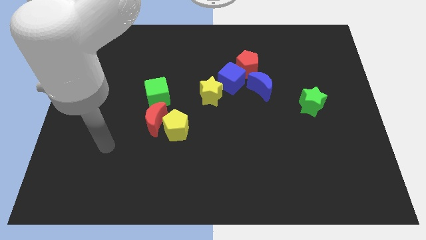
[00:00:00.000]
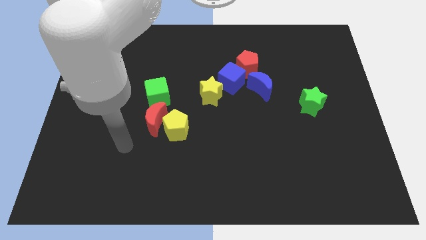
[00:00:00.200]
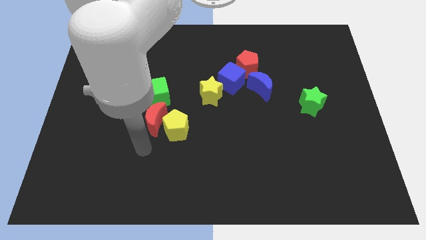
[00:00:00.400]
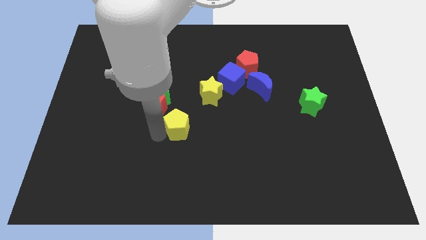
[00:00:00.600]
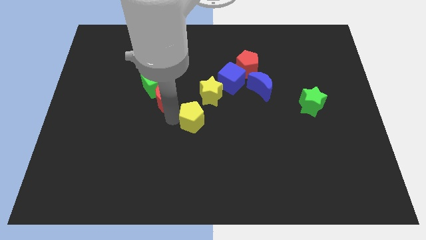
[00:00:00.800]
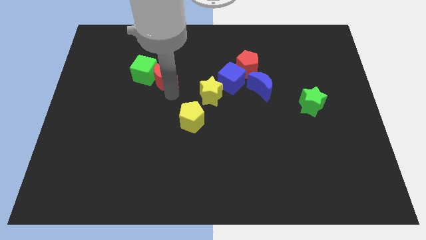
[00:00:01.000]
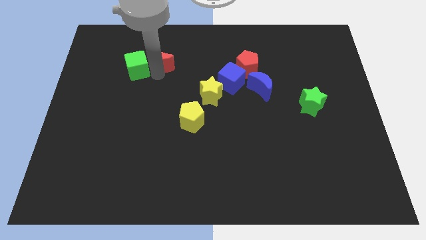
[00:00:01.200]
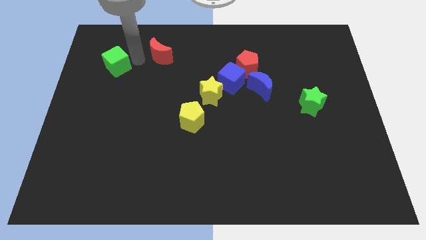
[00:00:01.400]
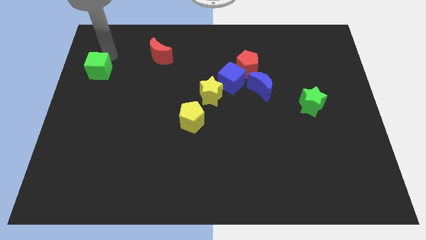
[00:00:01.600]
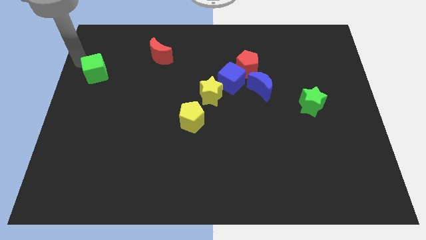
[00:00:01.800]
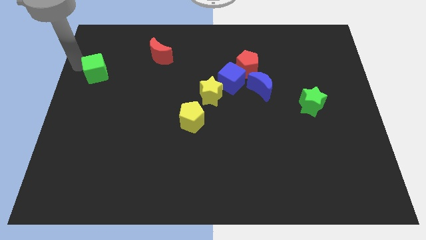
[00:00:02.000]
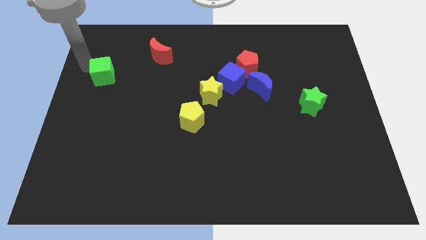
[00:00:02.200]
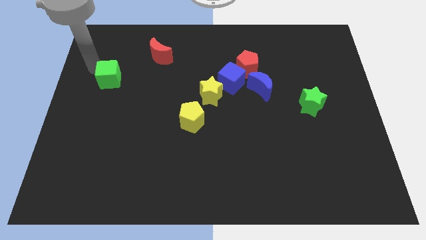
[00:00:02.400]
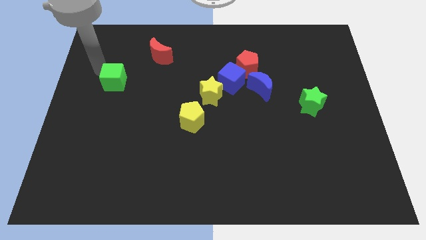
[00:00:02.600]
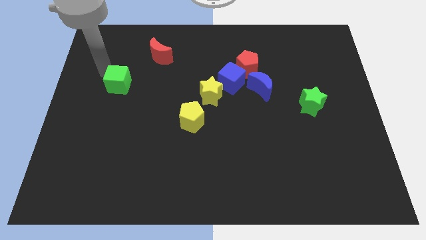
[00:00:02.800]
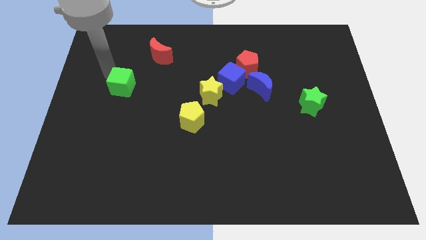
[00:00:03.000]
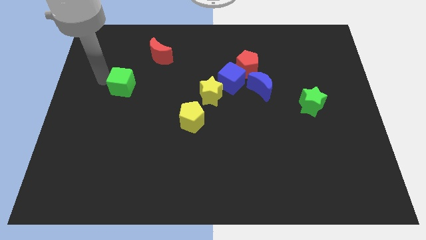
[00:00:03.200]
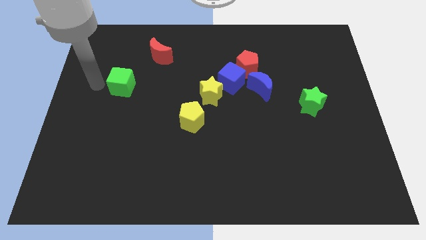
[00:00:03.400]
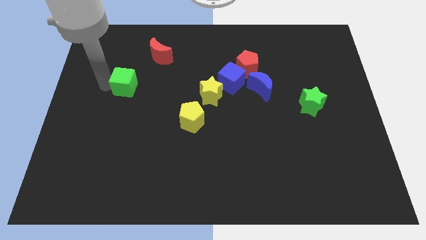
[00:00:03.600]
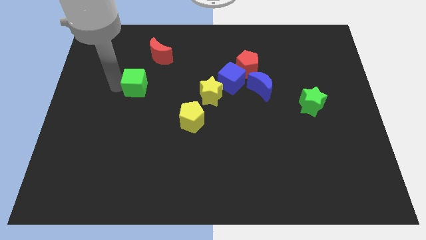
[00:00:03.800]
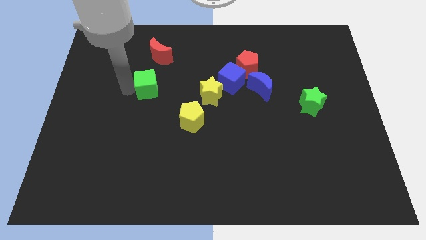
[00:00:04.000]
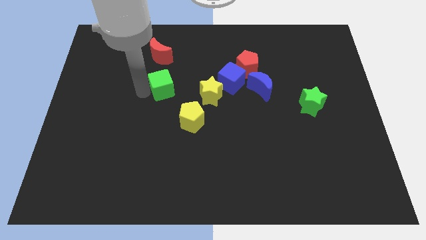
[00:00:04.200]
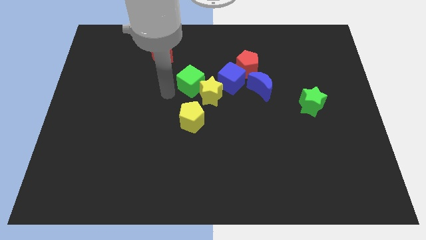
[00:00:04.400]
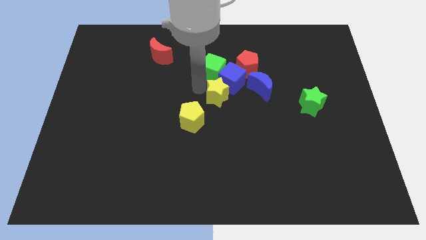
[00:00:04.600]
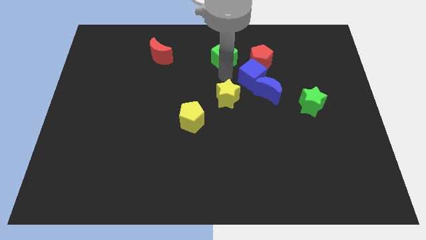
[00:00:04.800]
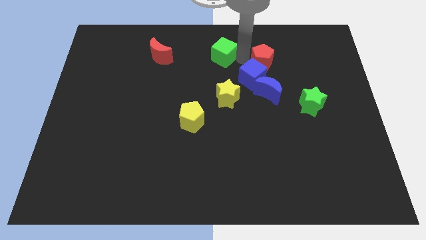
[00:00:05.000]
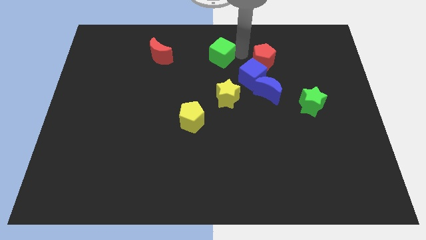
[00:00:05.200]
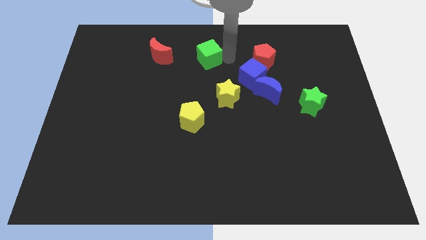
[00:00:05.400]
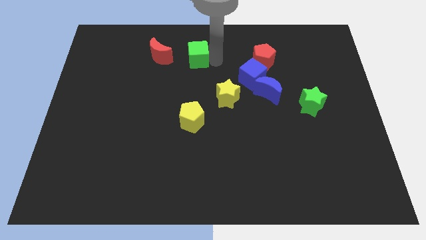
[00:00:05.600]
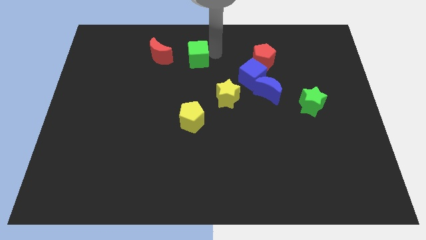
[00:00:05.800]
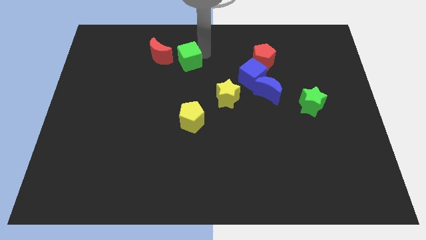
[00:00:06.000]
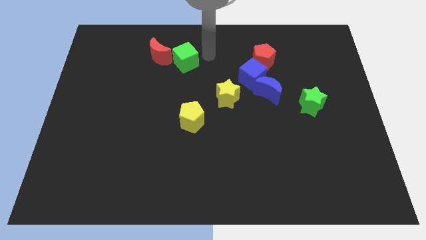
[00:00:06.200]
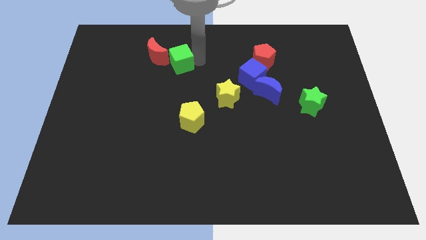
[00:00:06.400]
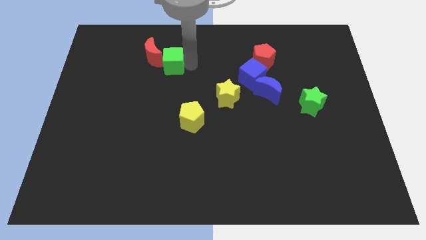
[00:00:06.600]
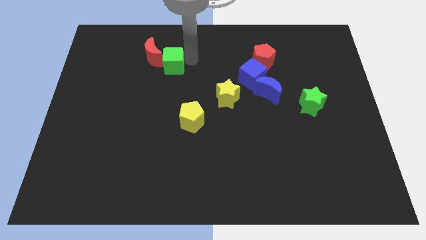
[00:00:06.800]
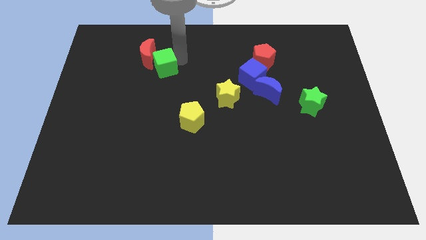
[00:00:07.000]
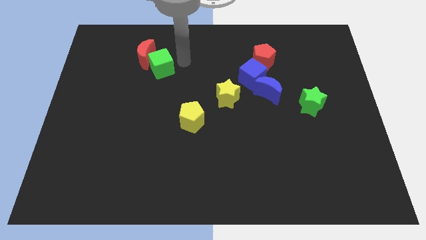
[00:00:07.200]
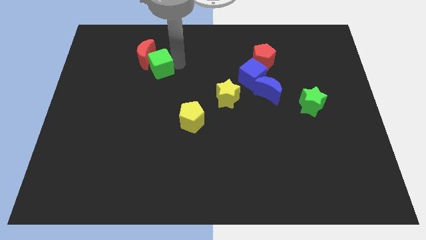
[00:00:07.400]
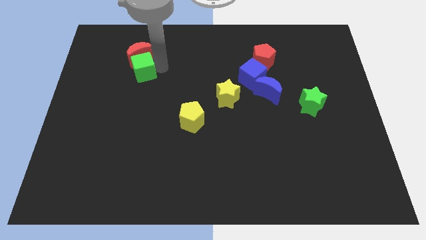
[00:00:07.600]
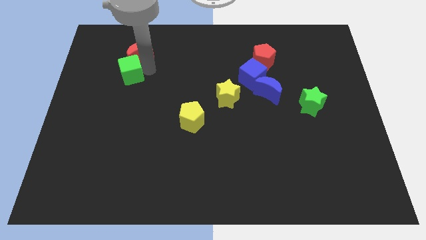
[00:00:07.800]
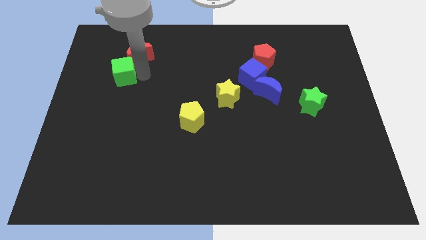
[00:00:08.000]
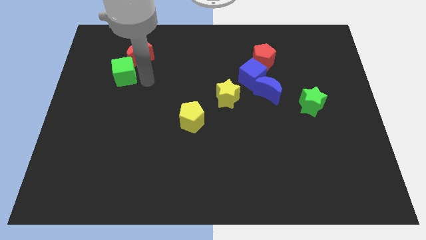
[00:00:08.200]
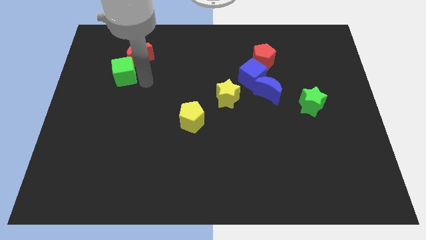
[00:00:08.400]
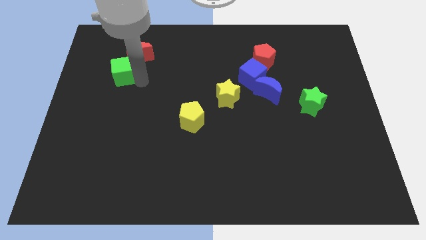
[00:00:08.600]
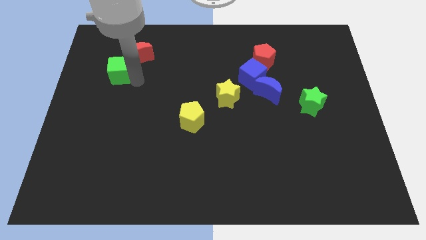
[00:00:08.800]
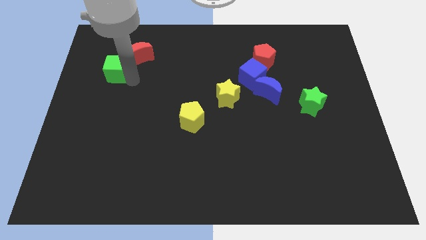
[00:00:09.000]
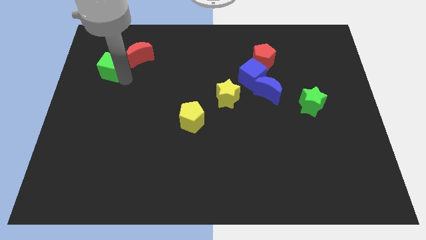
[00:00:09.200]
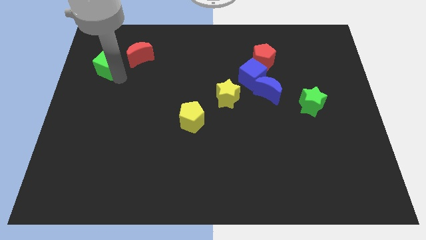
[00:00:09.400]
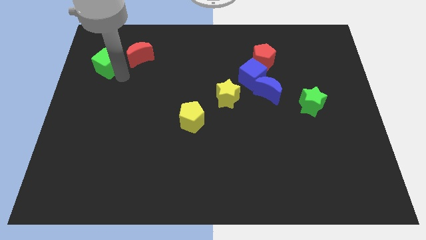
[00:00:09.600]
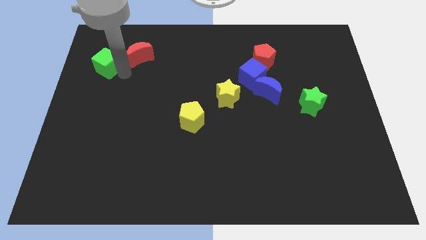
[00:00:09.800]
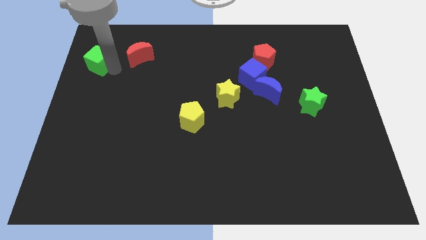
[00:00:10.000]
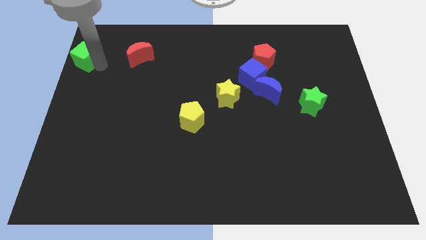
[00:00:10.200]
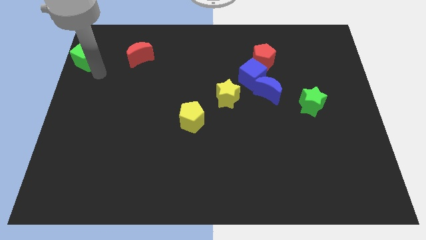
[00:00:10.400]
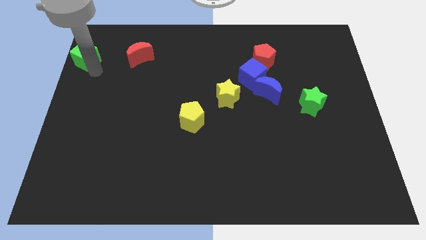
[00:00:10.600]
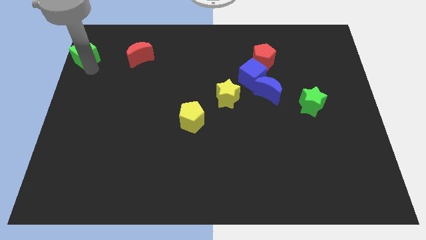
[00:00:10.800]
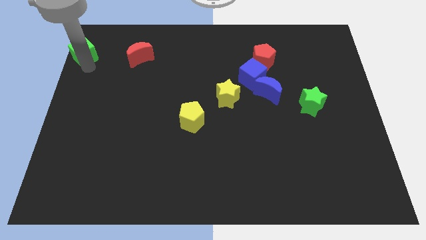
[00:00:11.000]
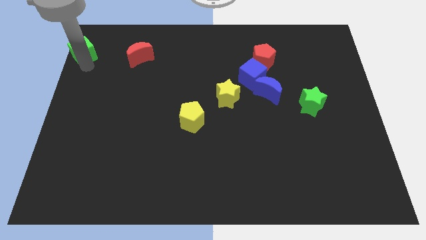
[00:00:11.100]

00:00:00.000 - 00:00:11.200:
push the green cube to the upper left corner
